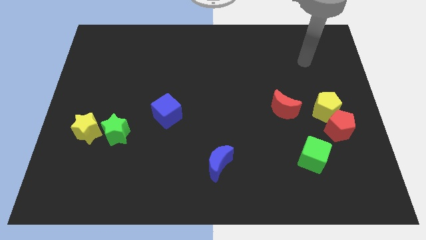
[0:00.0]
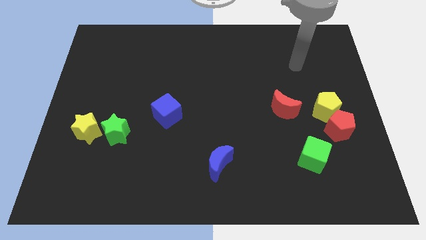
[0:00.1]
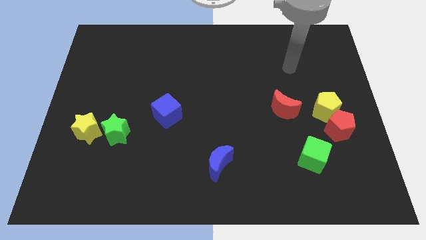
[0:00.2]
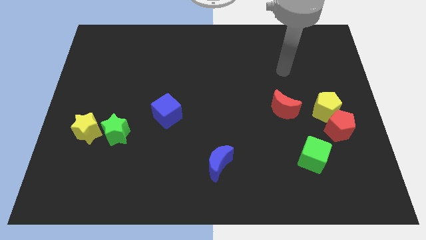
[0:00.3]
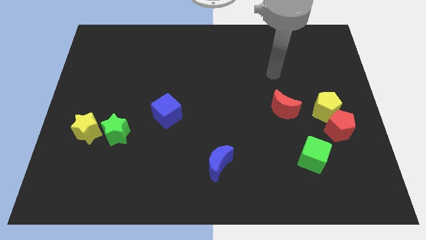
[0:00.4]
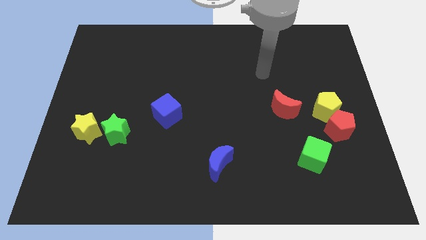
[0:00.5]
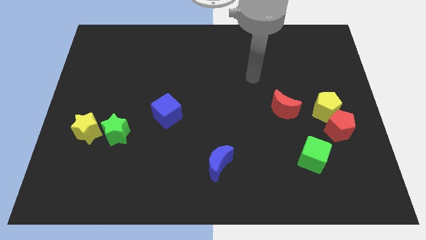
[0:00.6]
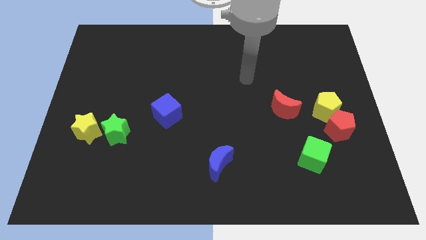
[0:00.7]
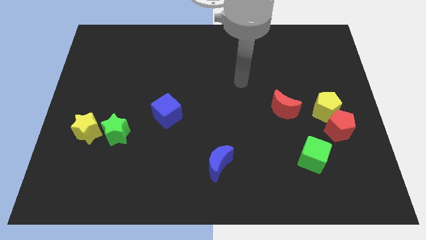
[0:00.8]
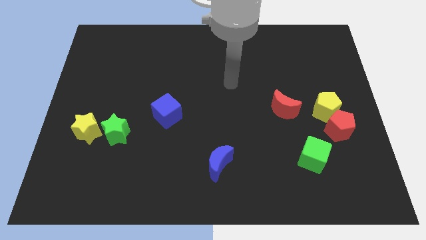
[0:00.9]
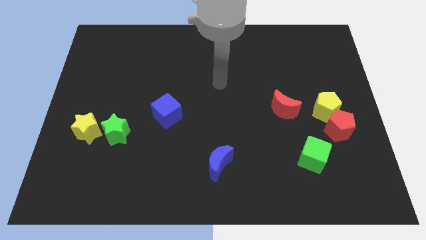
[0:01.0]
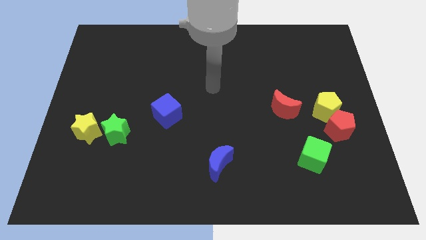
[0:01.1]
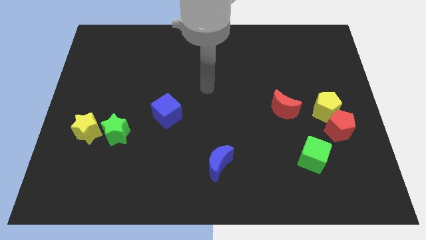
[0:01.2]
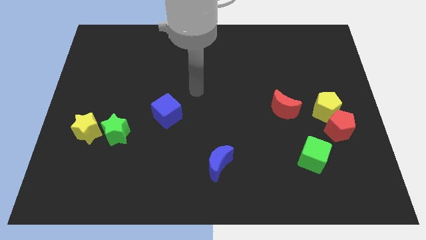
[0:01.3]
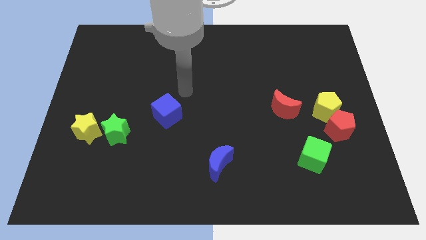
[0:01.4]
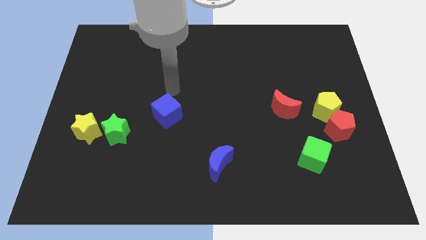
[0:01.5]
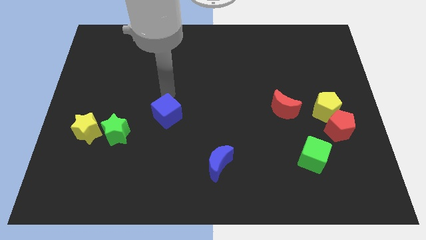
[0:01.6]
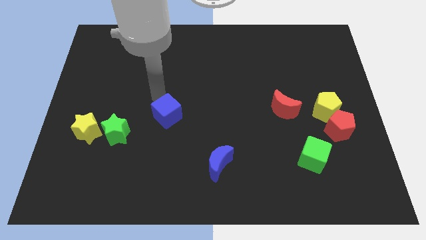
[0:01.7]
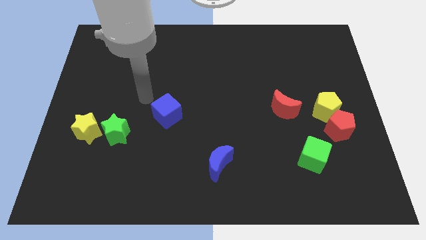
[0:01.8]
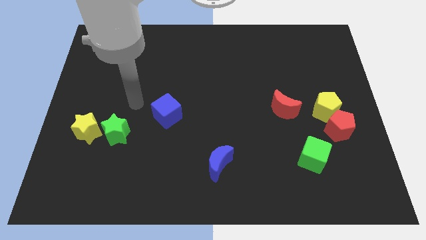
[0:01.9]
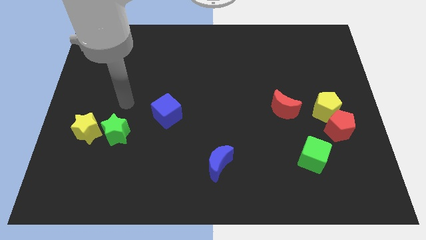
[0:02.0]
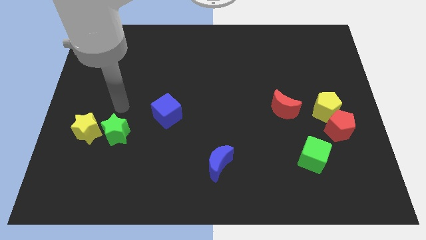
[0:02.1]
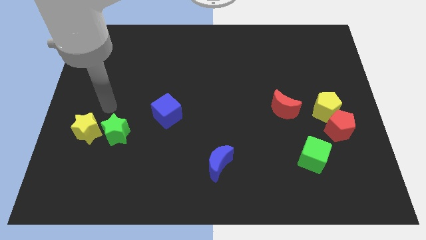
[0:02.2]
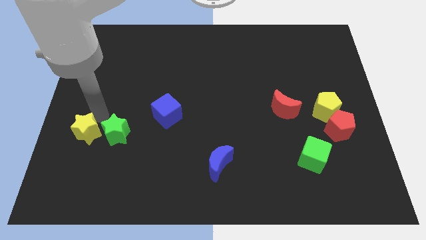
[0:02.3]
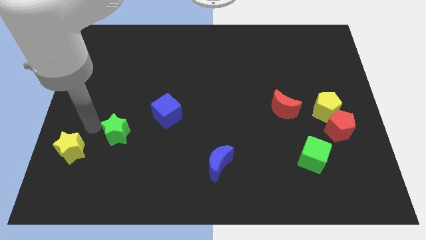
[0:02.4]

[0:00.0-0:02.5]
pull the green star apart from the yellow star

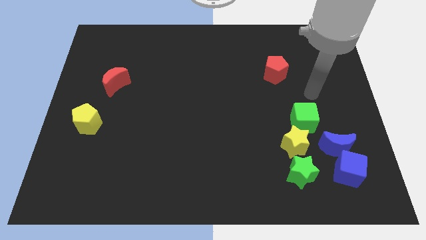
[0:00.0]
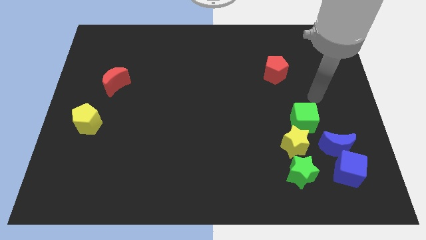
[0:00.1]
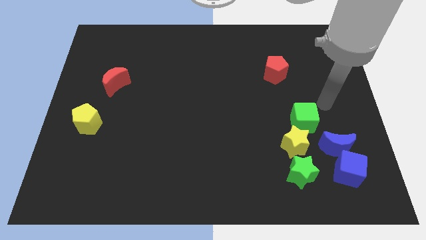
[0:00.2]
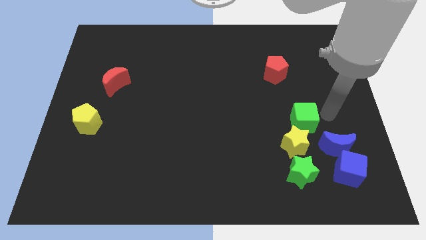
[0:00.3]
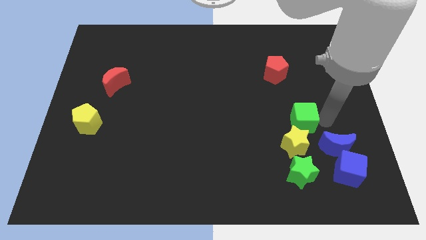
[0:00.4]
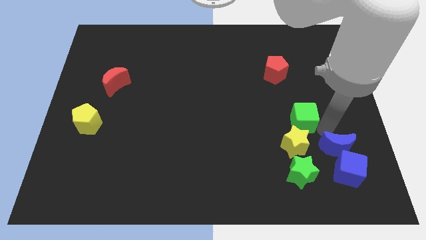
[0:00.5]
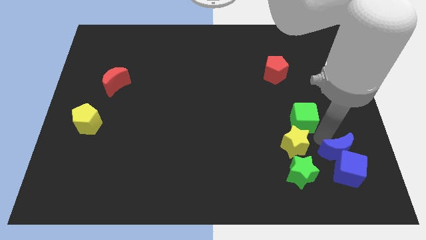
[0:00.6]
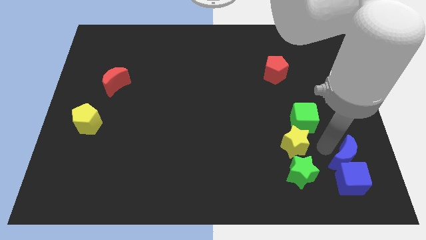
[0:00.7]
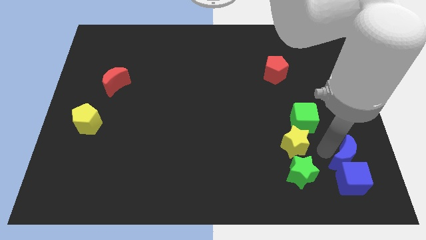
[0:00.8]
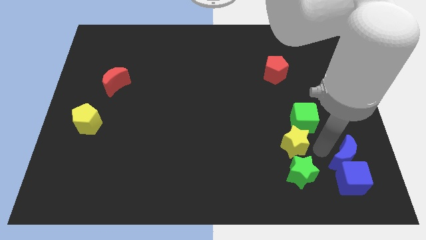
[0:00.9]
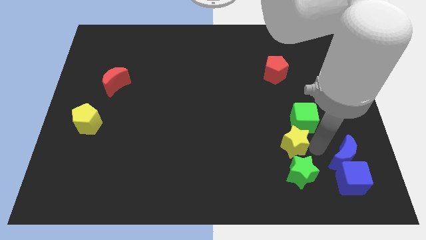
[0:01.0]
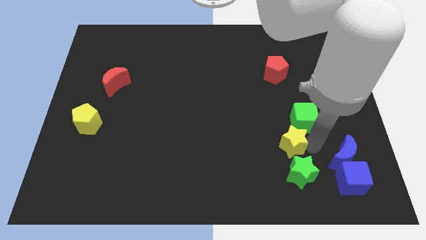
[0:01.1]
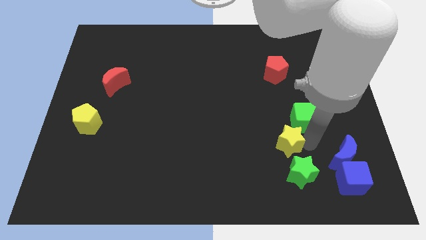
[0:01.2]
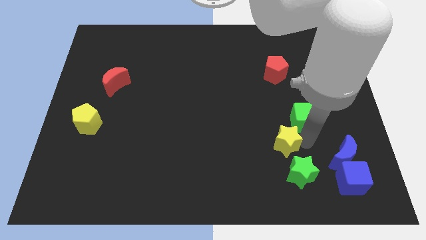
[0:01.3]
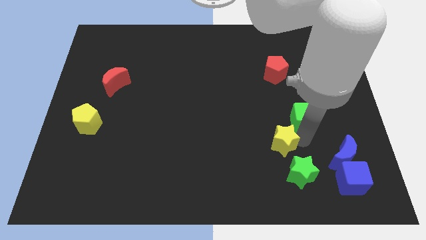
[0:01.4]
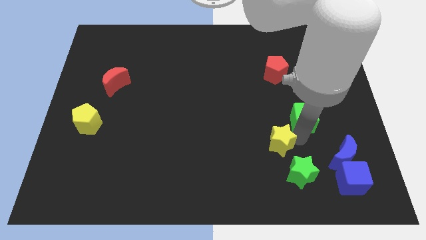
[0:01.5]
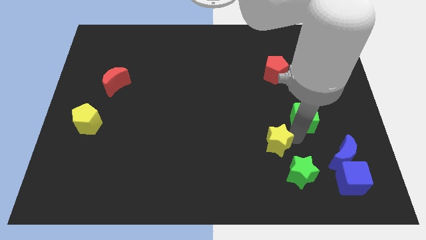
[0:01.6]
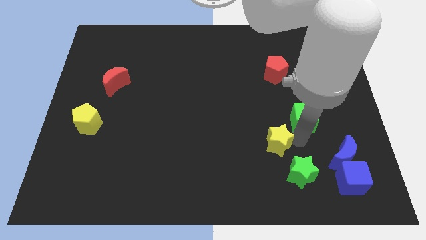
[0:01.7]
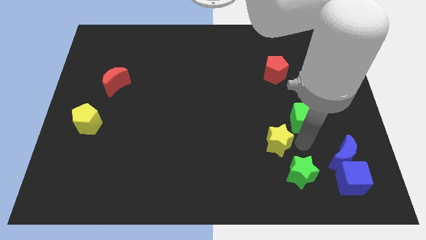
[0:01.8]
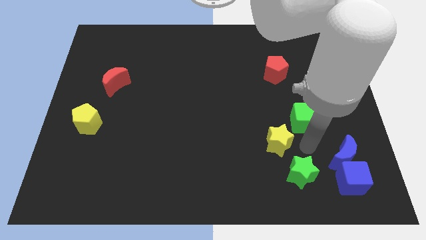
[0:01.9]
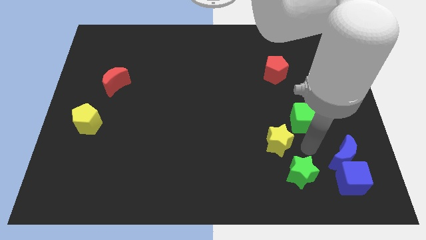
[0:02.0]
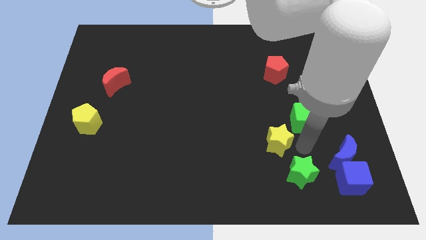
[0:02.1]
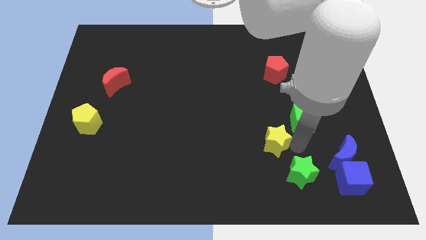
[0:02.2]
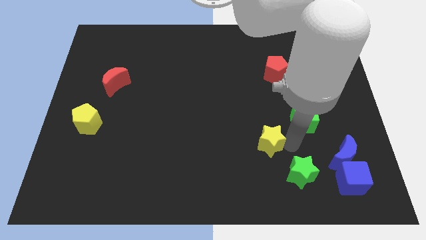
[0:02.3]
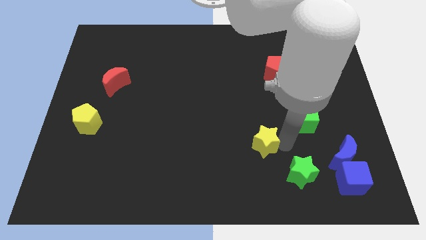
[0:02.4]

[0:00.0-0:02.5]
pull the yellow star apart from the group of blocks

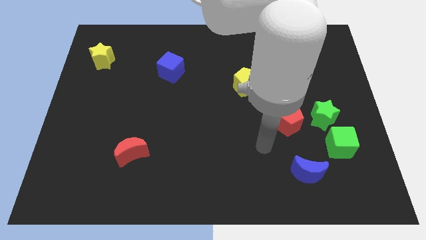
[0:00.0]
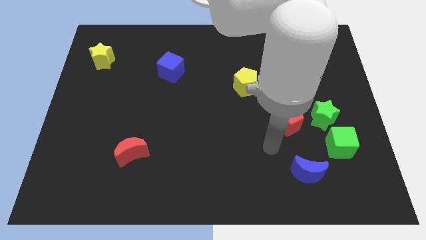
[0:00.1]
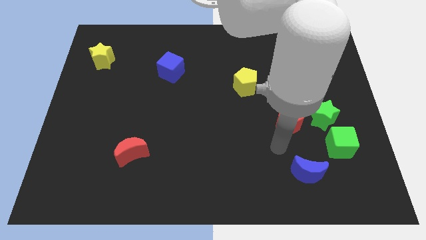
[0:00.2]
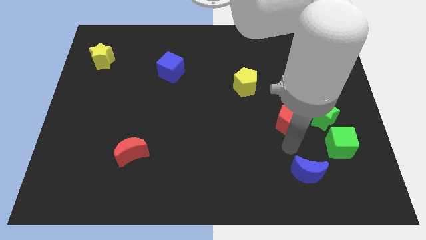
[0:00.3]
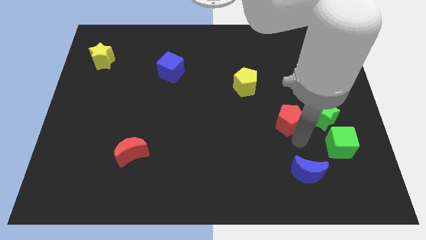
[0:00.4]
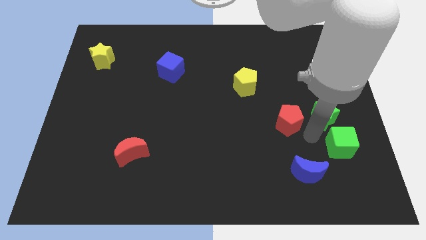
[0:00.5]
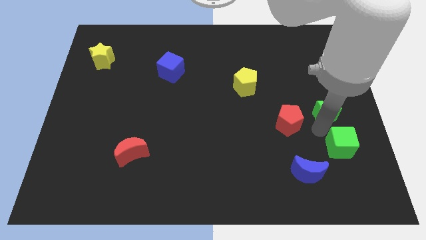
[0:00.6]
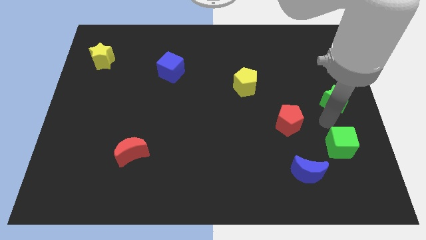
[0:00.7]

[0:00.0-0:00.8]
move the green cube away from the green star

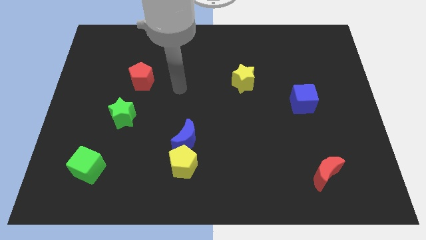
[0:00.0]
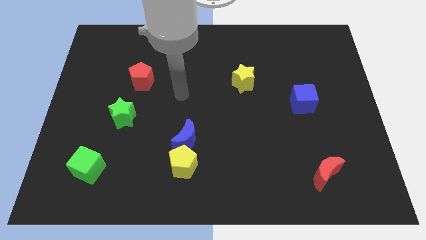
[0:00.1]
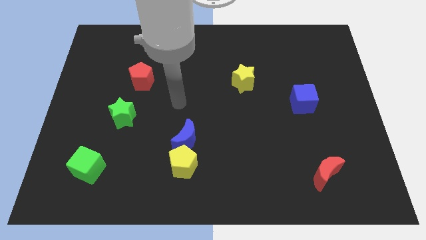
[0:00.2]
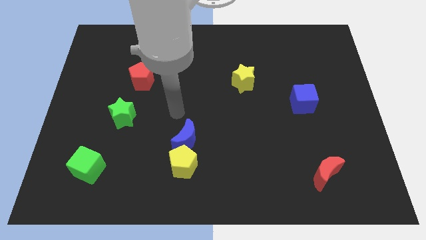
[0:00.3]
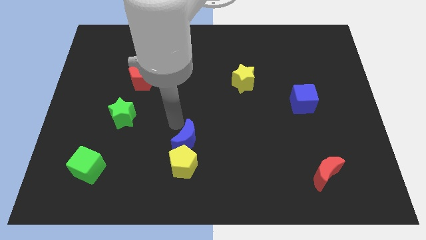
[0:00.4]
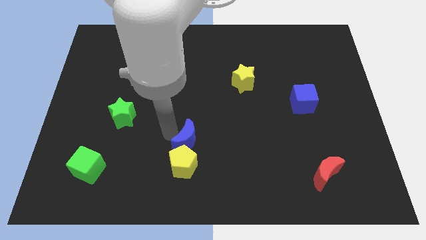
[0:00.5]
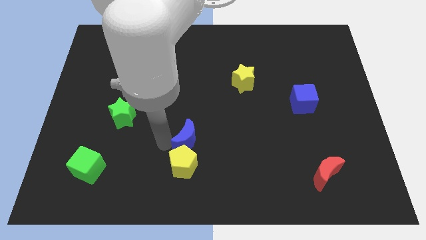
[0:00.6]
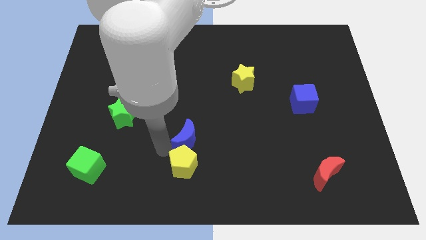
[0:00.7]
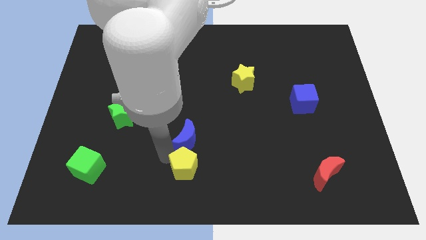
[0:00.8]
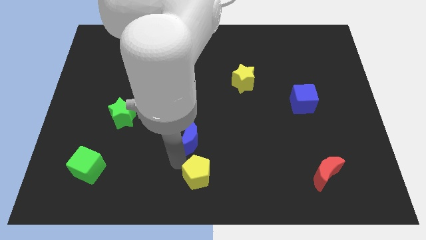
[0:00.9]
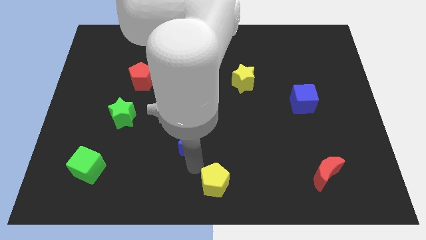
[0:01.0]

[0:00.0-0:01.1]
separate the blue moon from the yellow pentagon

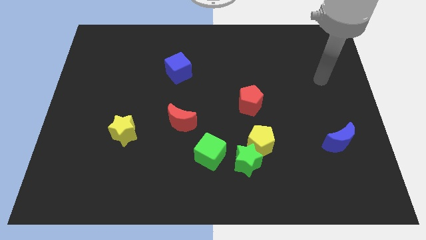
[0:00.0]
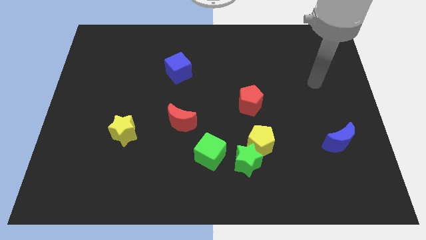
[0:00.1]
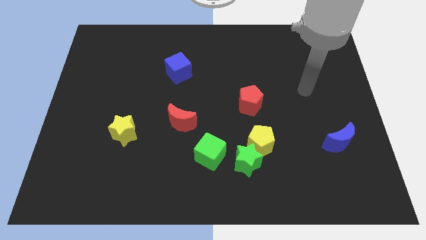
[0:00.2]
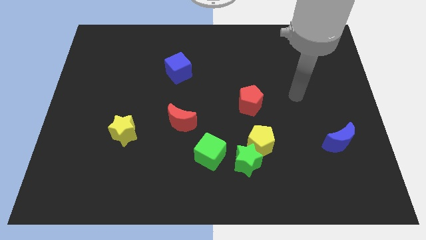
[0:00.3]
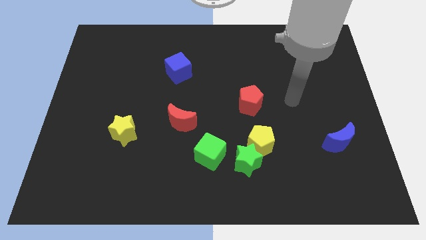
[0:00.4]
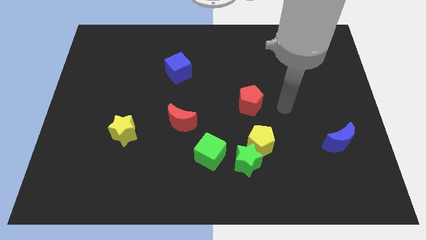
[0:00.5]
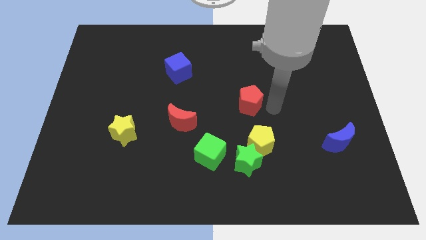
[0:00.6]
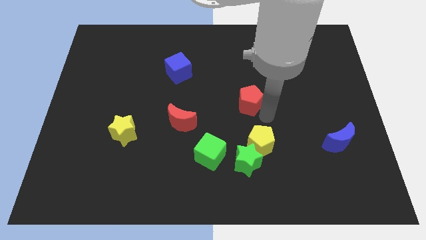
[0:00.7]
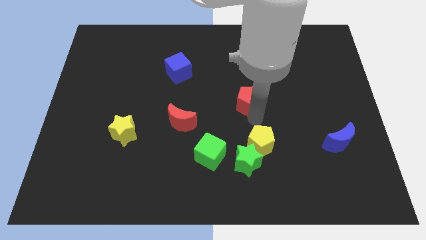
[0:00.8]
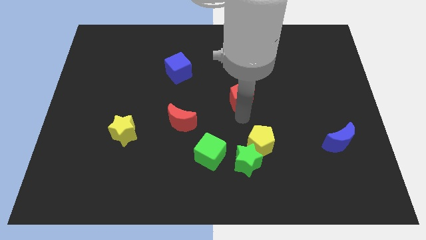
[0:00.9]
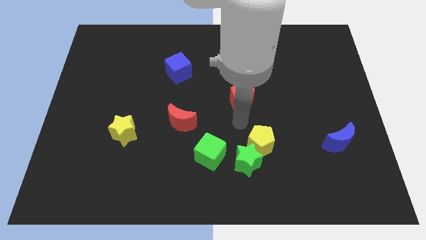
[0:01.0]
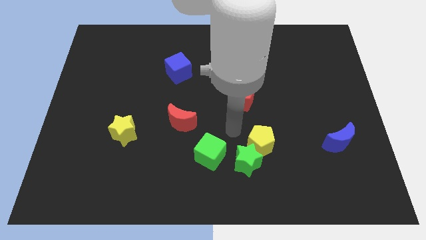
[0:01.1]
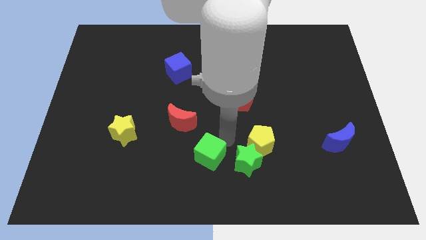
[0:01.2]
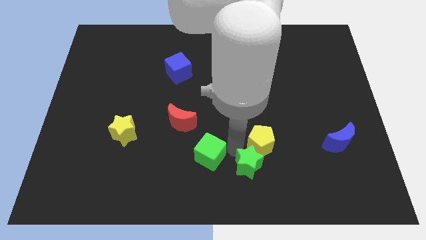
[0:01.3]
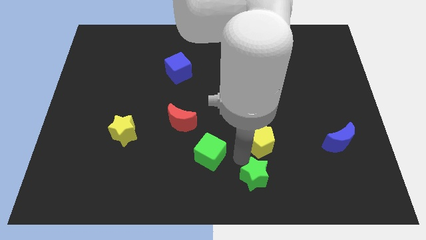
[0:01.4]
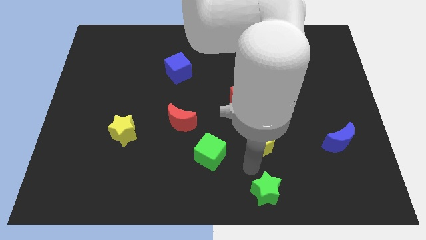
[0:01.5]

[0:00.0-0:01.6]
move the yellow pentagon away from the green star

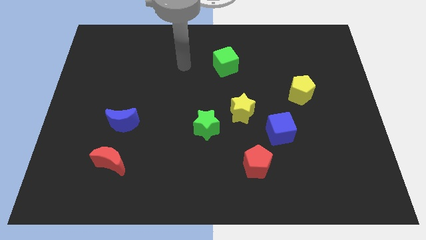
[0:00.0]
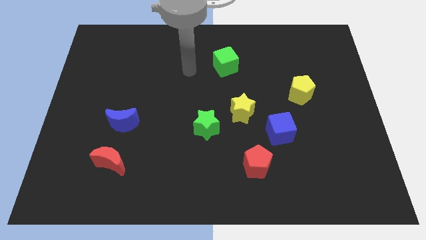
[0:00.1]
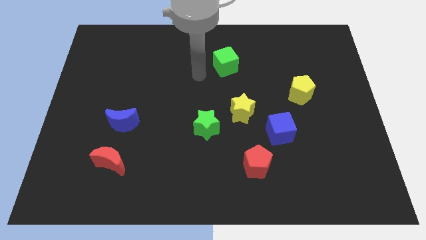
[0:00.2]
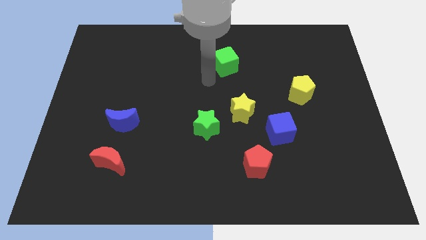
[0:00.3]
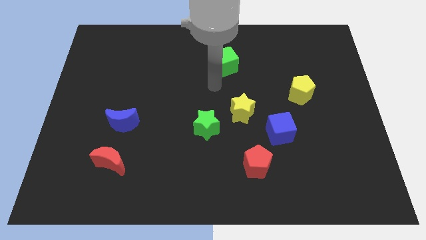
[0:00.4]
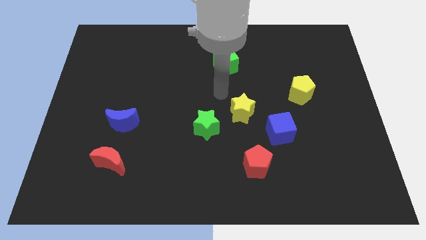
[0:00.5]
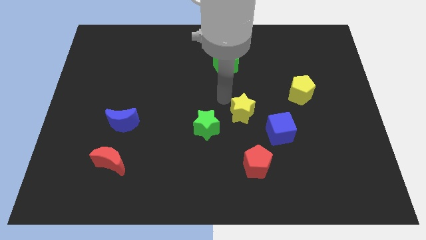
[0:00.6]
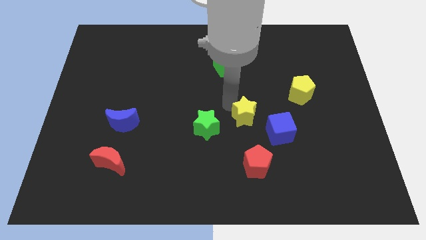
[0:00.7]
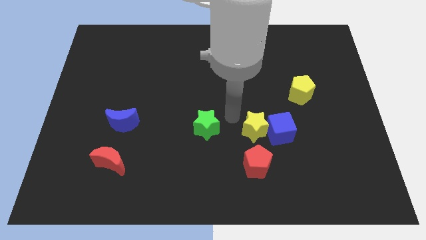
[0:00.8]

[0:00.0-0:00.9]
move the green star away from the yellow star
